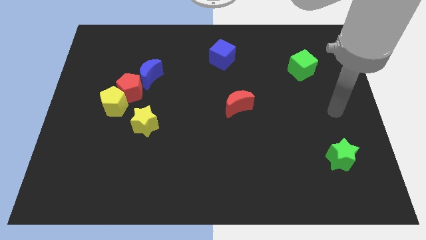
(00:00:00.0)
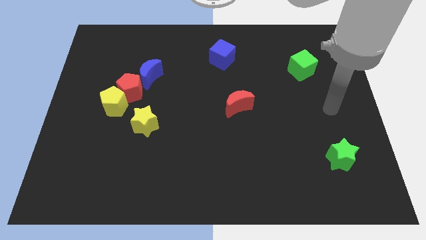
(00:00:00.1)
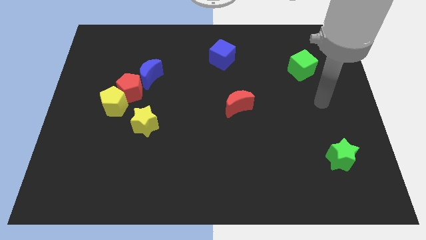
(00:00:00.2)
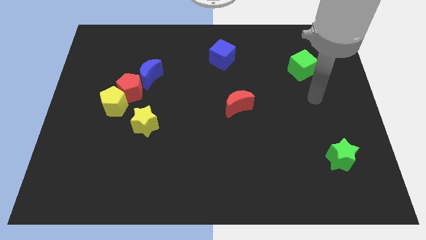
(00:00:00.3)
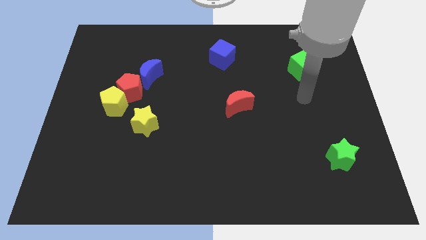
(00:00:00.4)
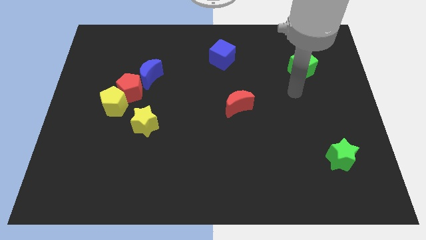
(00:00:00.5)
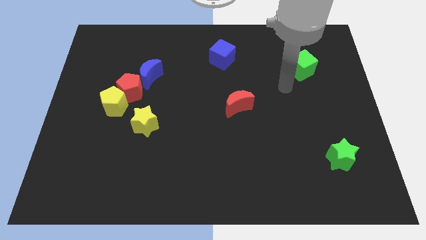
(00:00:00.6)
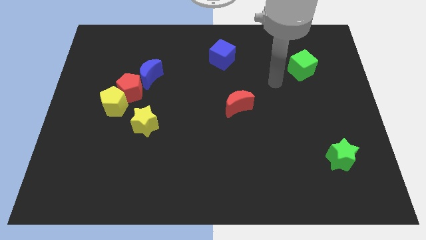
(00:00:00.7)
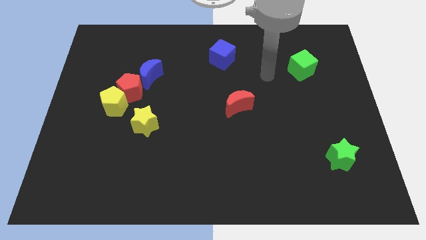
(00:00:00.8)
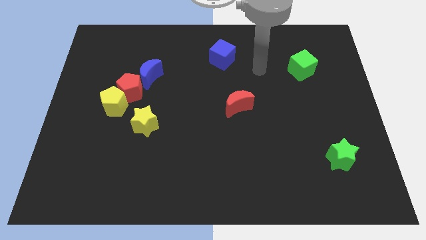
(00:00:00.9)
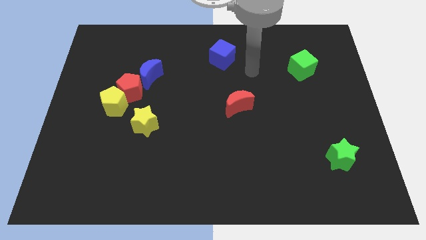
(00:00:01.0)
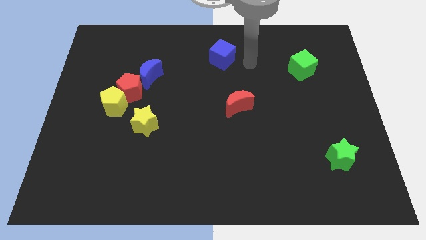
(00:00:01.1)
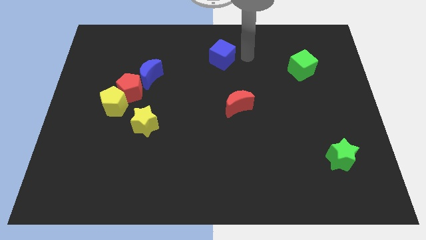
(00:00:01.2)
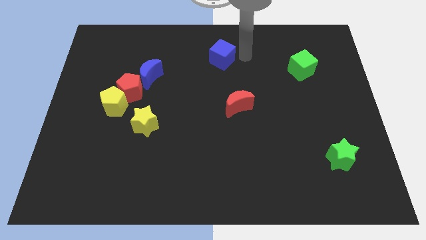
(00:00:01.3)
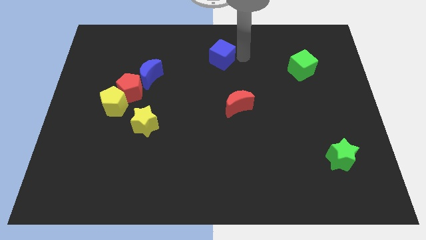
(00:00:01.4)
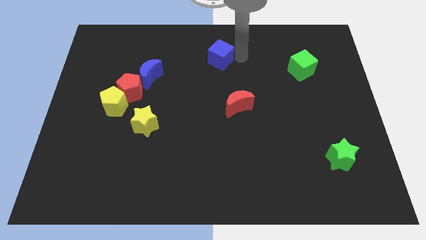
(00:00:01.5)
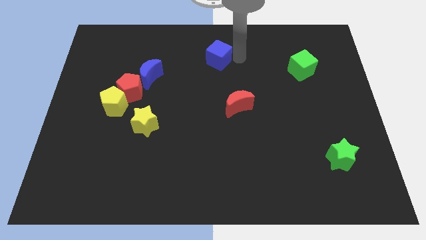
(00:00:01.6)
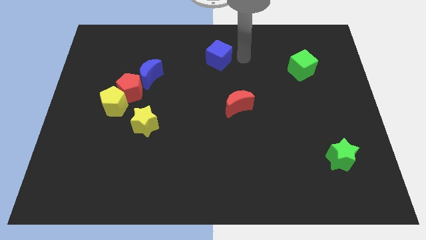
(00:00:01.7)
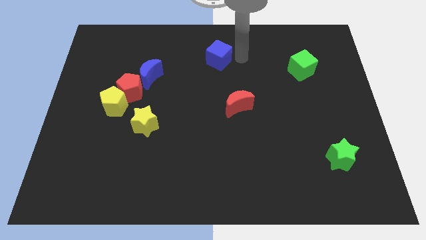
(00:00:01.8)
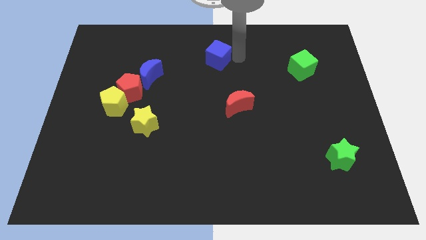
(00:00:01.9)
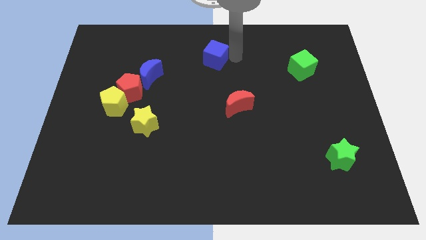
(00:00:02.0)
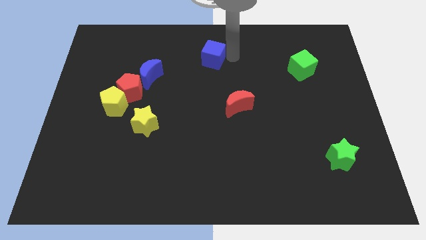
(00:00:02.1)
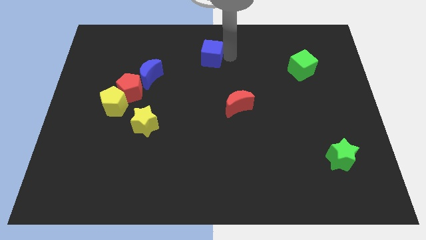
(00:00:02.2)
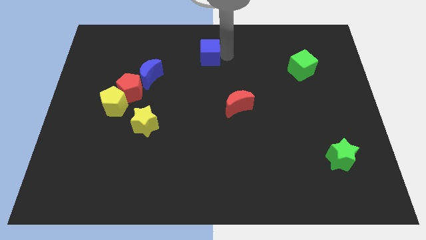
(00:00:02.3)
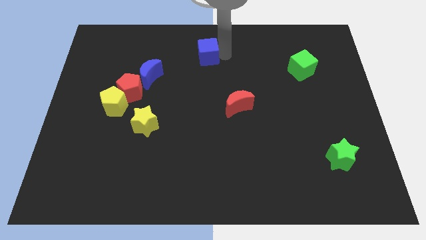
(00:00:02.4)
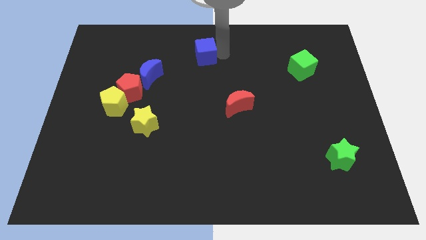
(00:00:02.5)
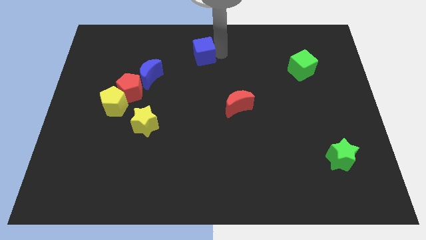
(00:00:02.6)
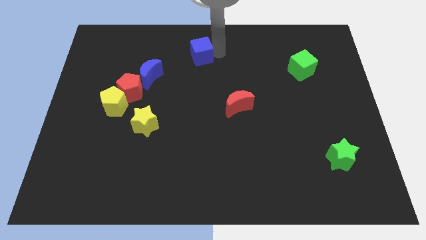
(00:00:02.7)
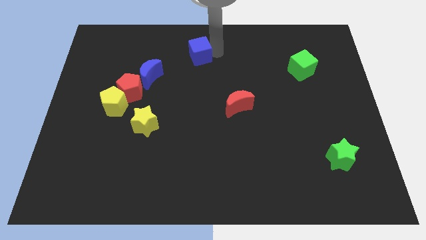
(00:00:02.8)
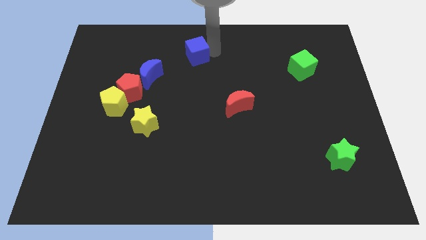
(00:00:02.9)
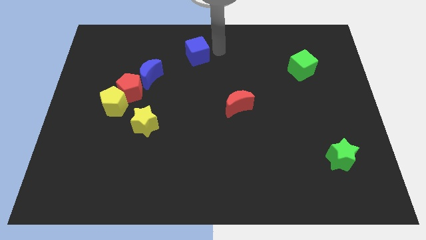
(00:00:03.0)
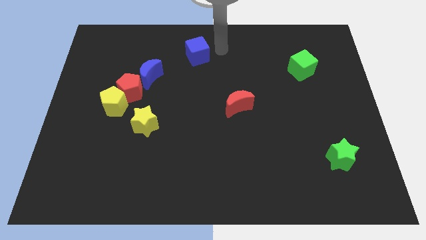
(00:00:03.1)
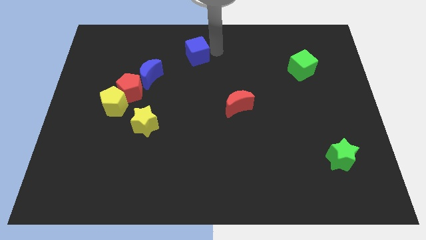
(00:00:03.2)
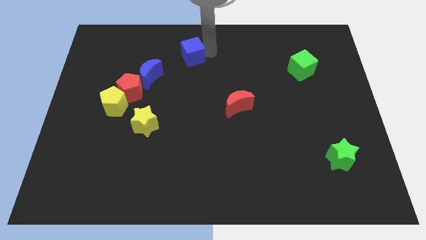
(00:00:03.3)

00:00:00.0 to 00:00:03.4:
push the blue cube a bit to the left

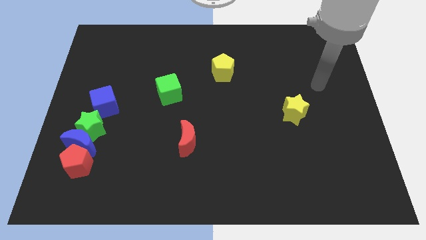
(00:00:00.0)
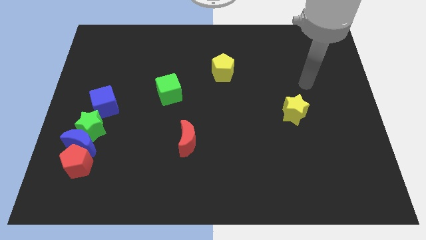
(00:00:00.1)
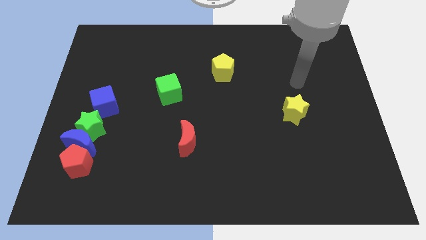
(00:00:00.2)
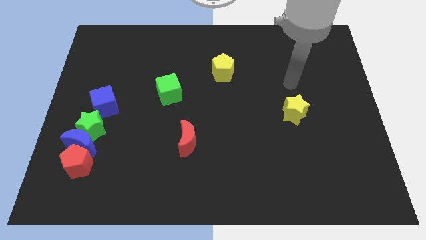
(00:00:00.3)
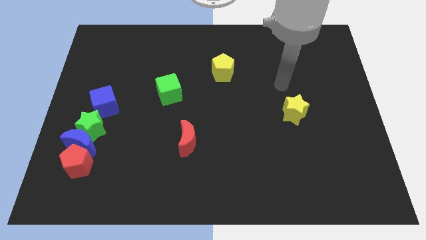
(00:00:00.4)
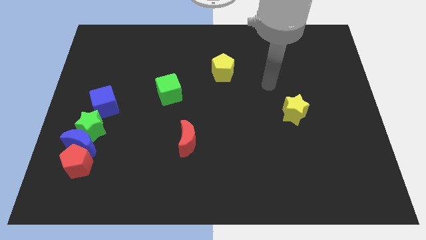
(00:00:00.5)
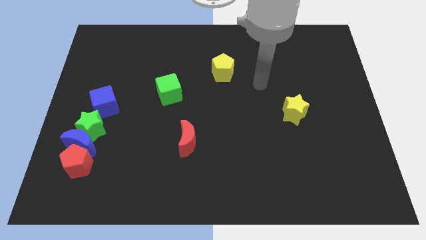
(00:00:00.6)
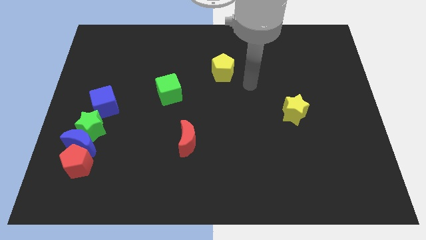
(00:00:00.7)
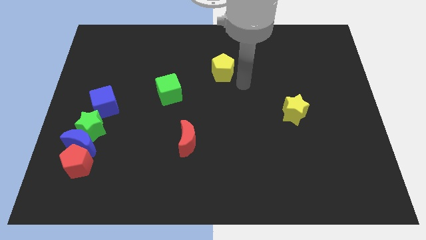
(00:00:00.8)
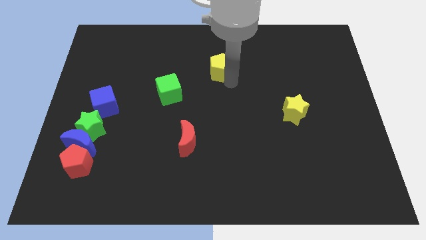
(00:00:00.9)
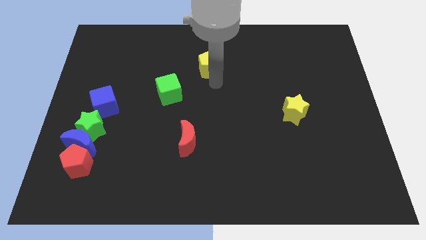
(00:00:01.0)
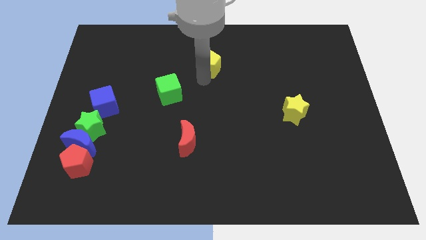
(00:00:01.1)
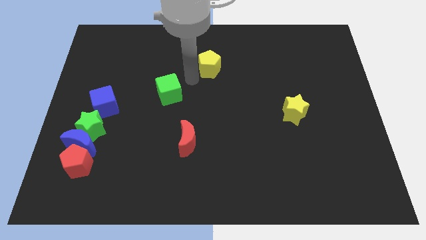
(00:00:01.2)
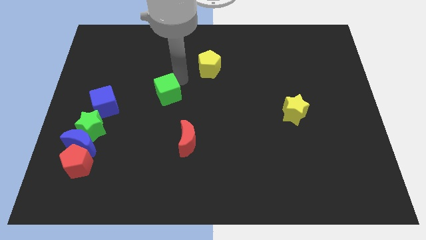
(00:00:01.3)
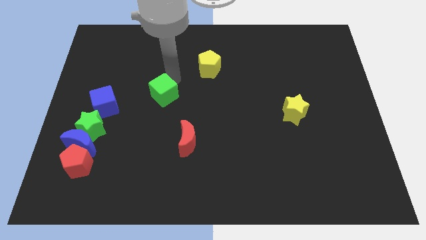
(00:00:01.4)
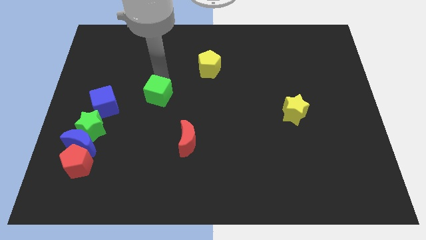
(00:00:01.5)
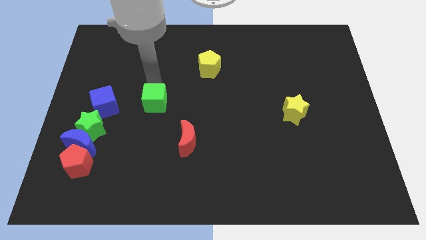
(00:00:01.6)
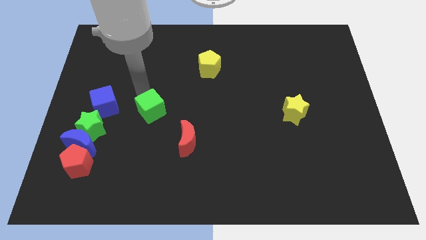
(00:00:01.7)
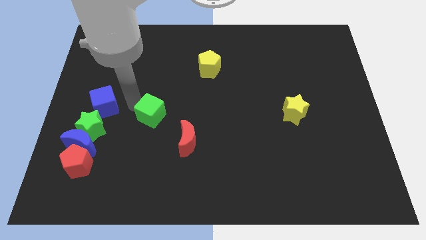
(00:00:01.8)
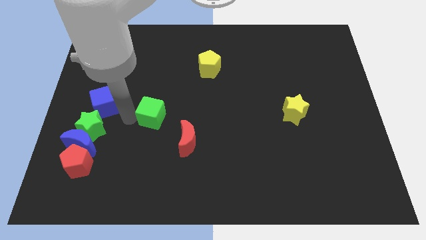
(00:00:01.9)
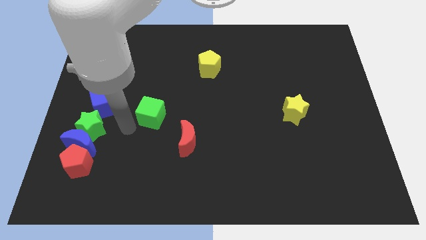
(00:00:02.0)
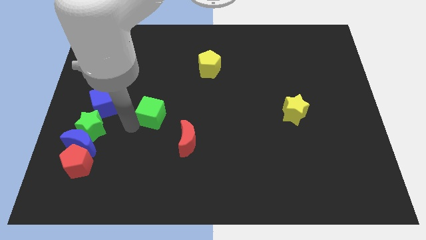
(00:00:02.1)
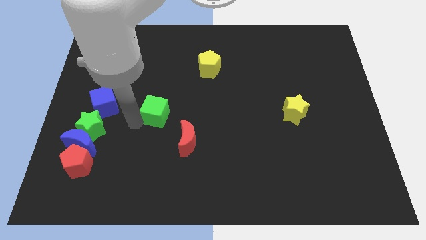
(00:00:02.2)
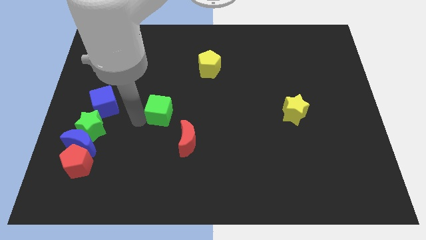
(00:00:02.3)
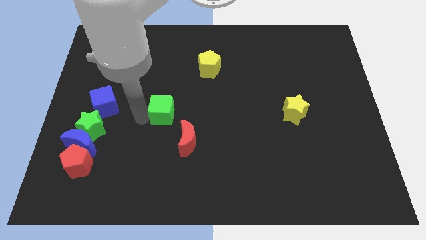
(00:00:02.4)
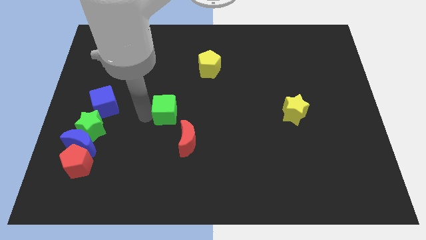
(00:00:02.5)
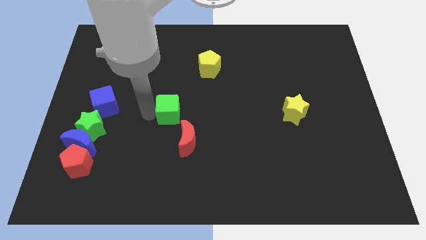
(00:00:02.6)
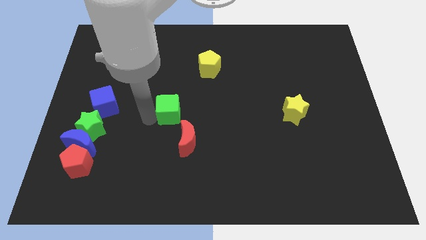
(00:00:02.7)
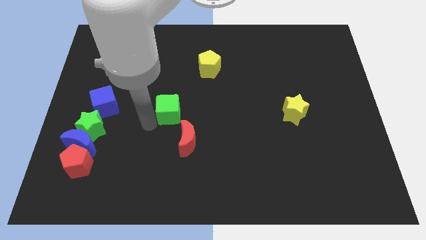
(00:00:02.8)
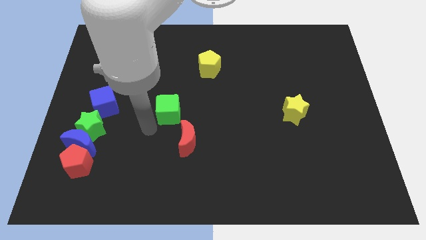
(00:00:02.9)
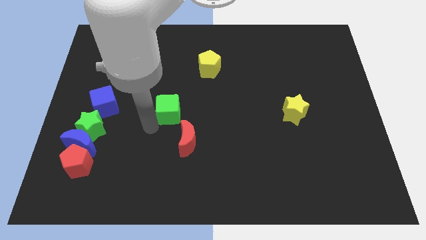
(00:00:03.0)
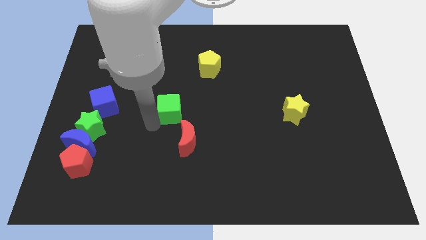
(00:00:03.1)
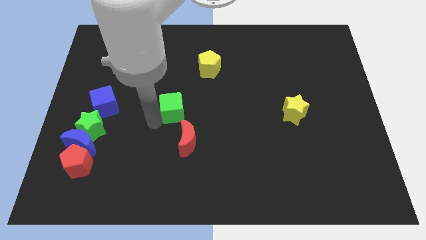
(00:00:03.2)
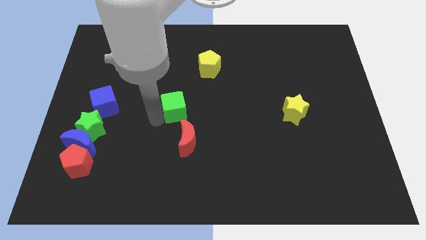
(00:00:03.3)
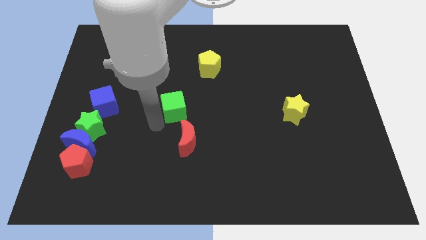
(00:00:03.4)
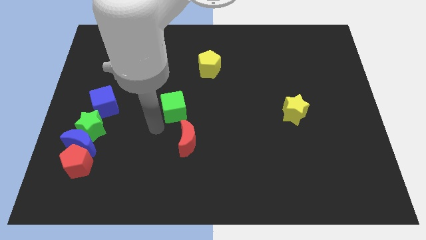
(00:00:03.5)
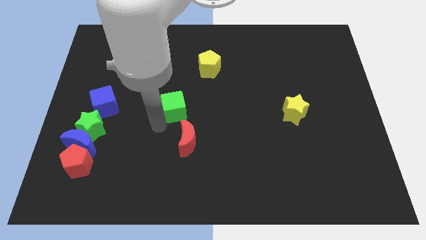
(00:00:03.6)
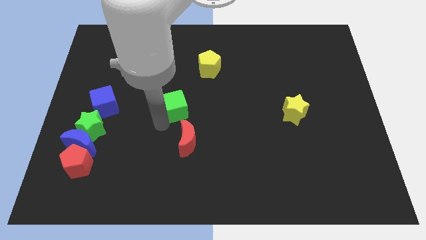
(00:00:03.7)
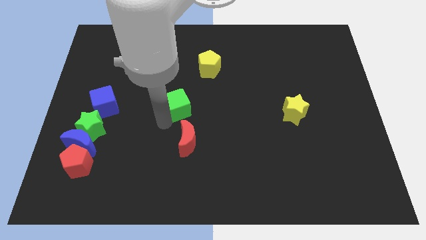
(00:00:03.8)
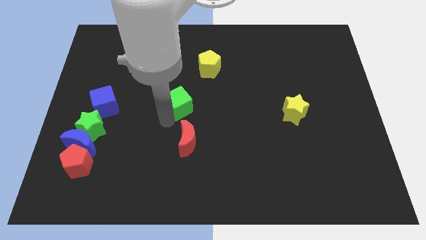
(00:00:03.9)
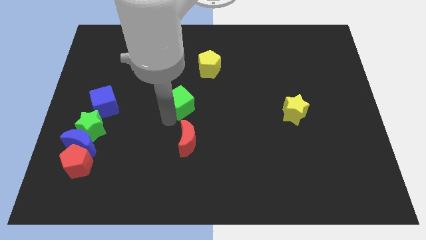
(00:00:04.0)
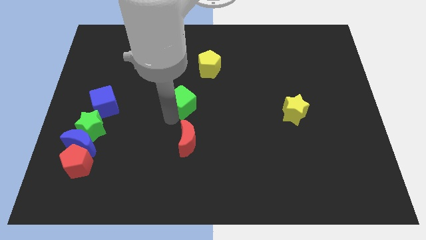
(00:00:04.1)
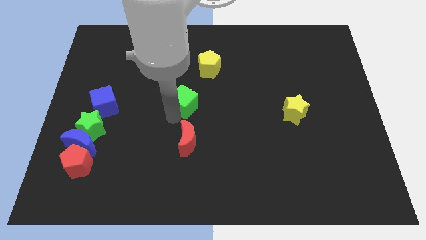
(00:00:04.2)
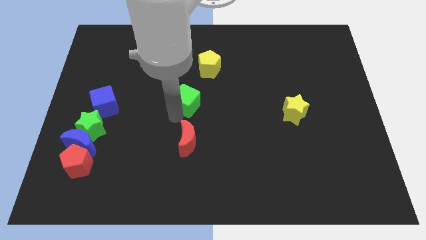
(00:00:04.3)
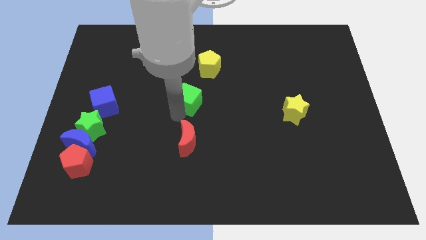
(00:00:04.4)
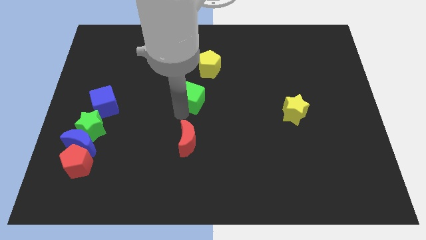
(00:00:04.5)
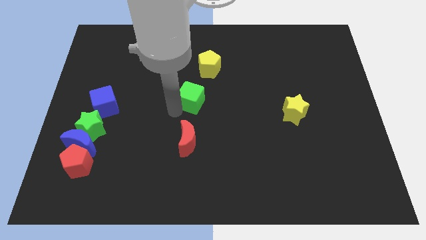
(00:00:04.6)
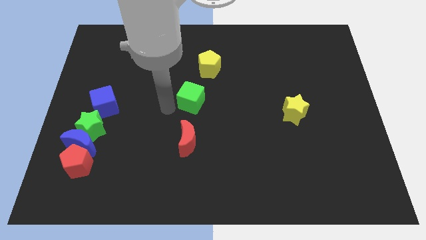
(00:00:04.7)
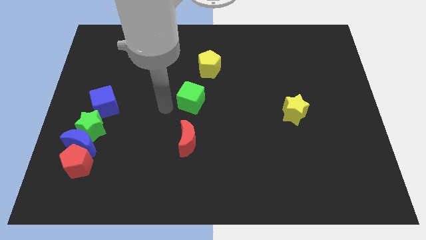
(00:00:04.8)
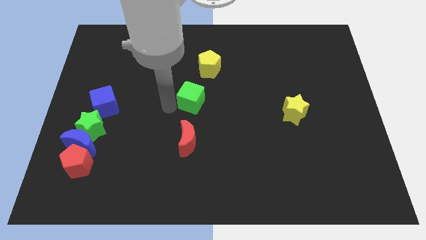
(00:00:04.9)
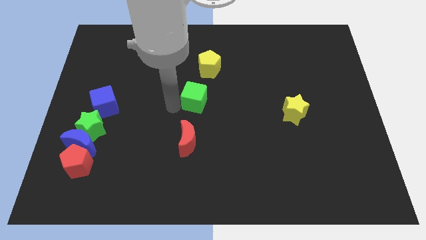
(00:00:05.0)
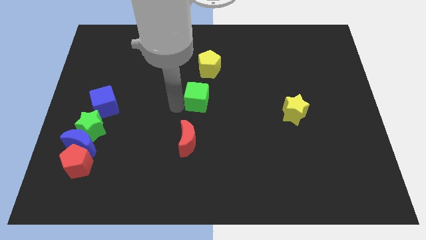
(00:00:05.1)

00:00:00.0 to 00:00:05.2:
slightly move the green cube right
